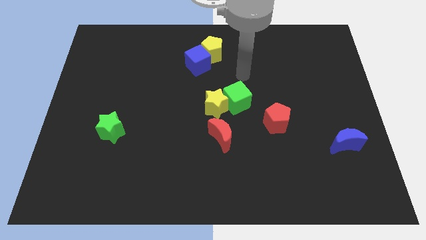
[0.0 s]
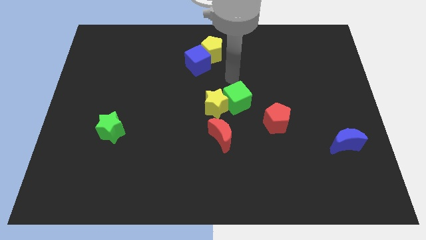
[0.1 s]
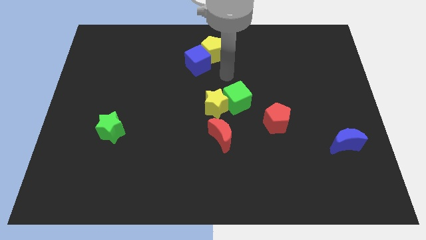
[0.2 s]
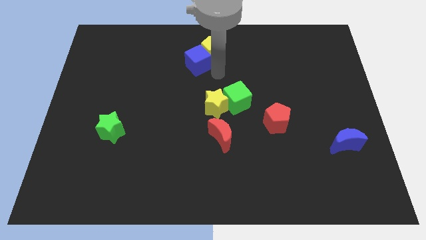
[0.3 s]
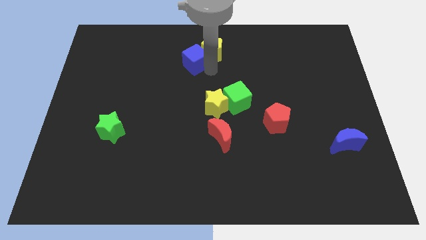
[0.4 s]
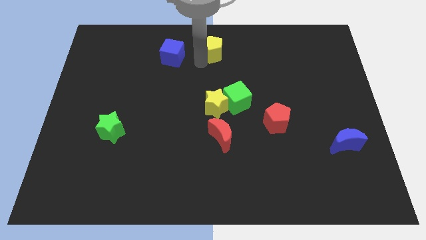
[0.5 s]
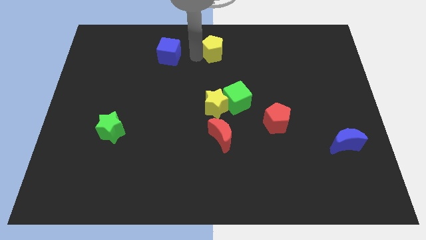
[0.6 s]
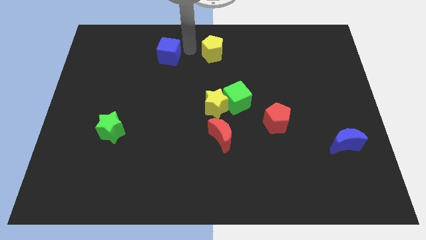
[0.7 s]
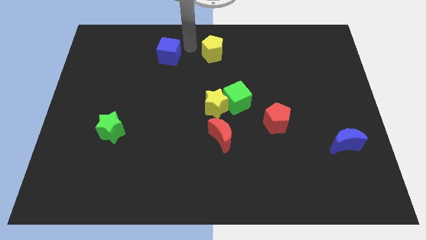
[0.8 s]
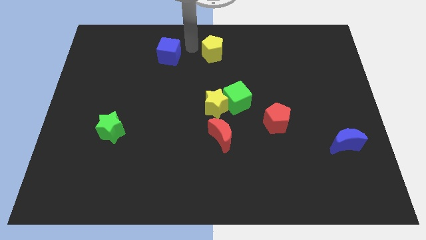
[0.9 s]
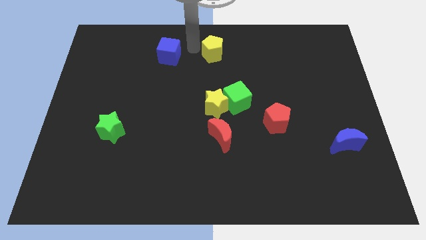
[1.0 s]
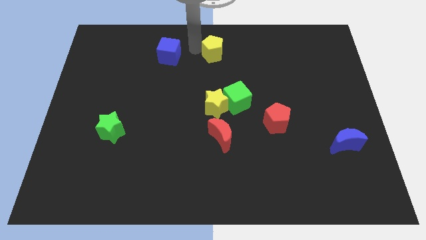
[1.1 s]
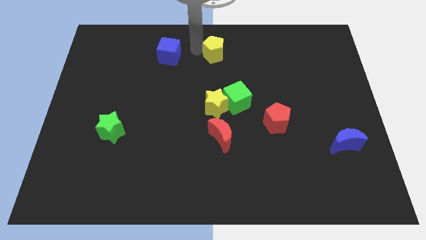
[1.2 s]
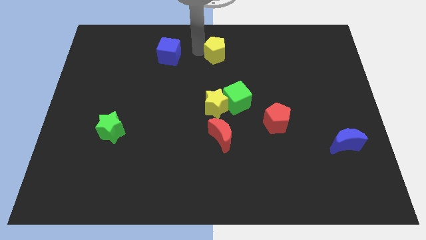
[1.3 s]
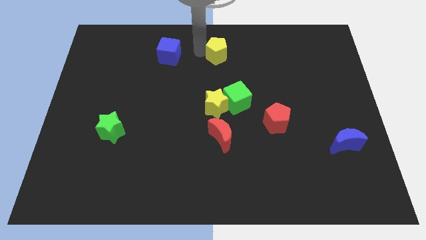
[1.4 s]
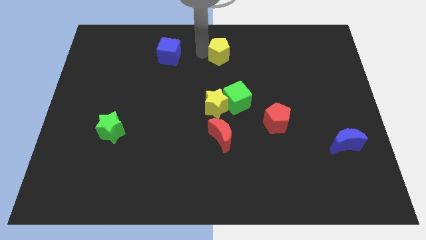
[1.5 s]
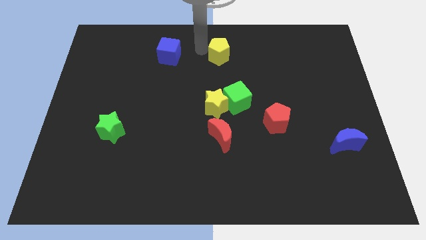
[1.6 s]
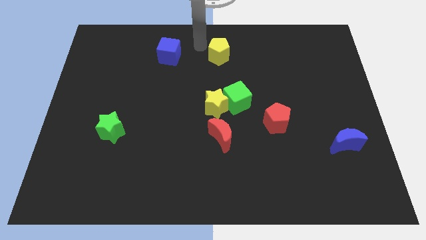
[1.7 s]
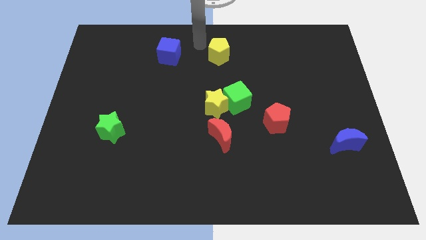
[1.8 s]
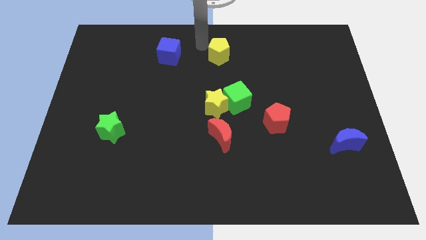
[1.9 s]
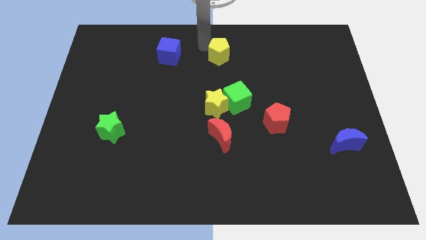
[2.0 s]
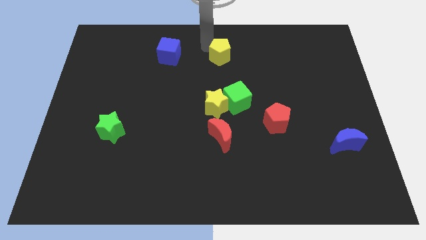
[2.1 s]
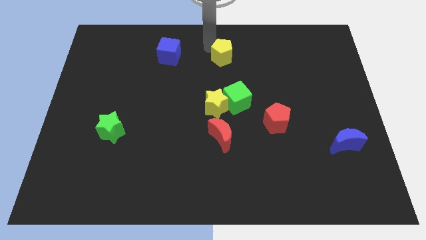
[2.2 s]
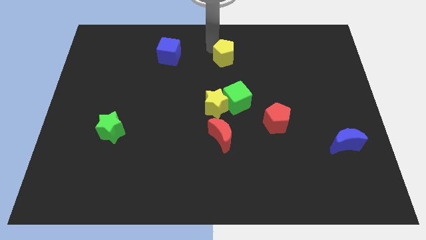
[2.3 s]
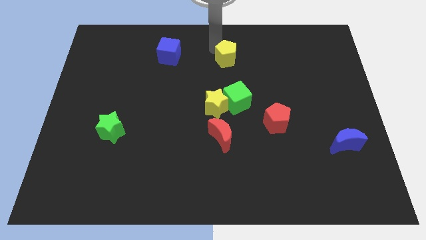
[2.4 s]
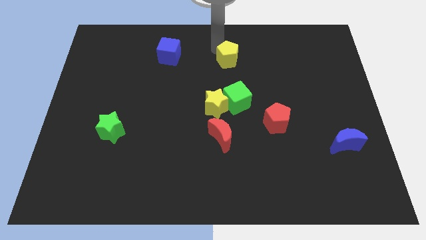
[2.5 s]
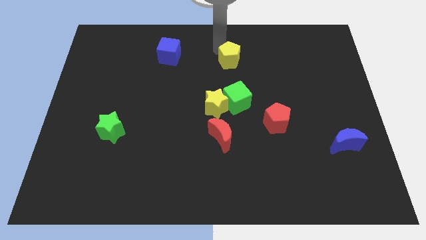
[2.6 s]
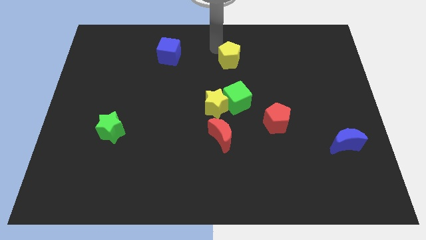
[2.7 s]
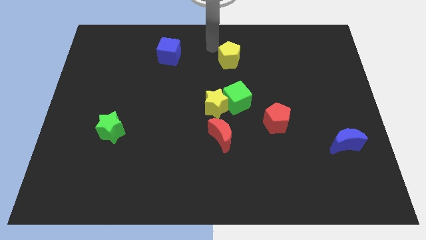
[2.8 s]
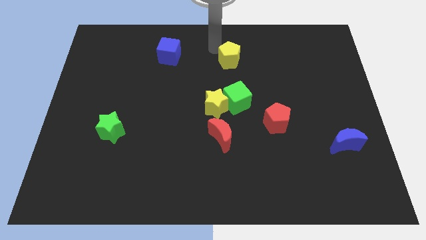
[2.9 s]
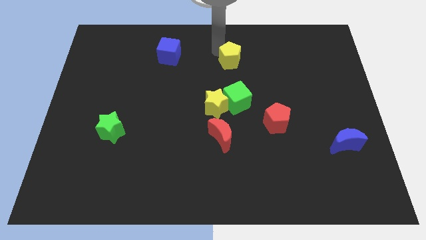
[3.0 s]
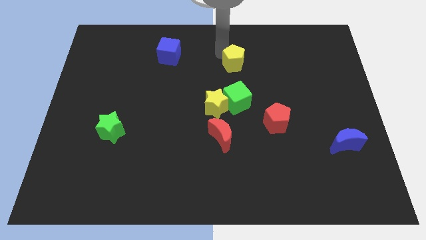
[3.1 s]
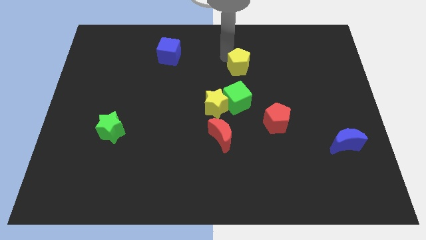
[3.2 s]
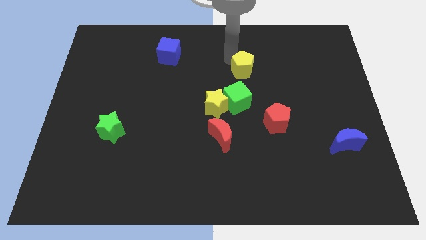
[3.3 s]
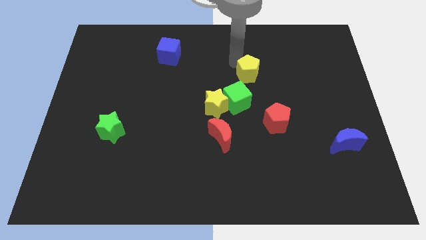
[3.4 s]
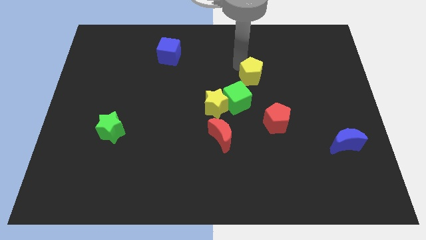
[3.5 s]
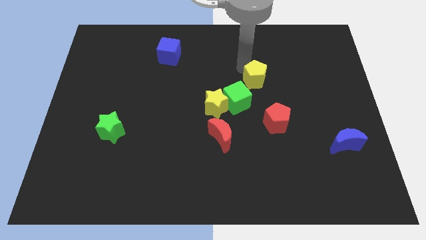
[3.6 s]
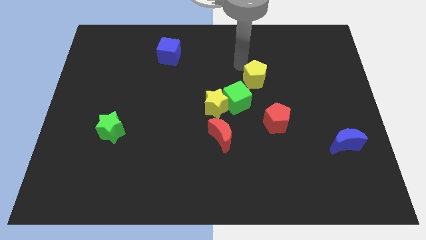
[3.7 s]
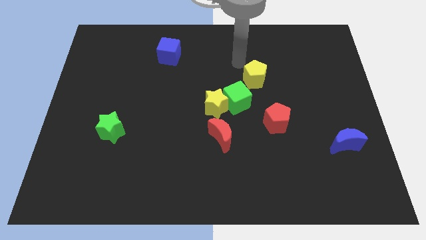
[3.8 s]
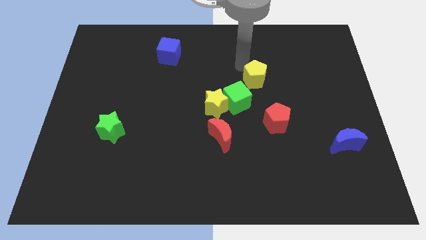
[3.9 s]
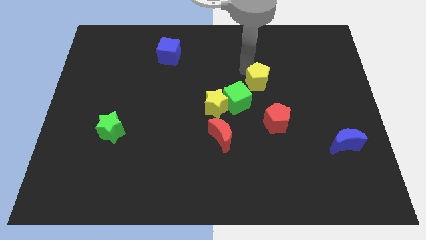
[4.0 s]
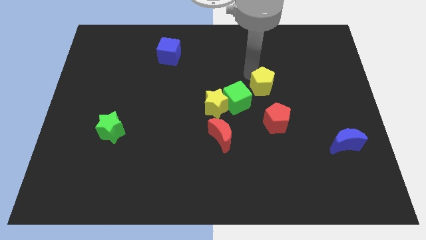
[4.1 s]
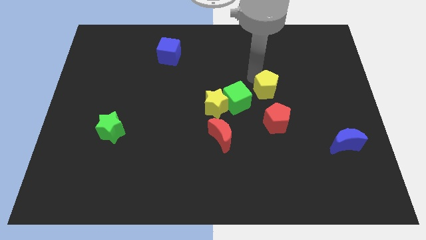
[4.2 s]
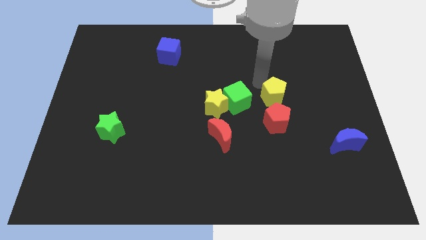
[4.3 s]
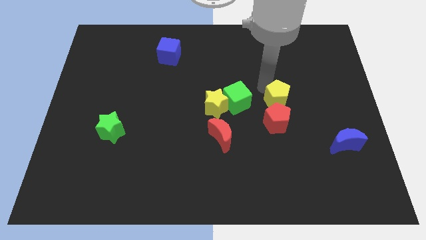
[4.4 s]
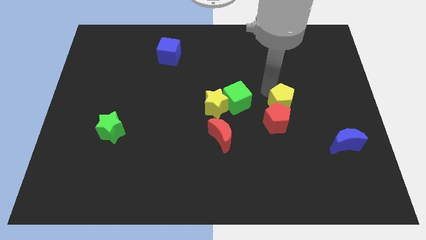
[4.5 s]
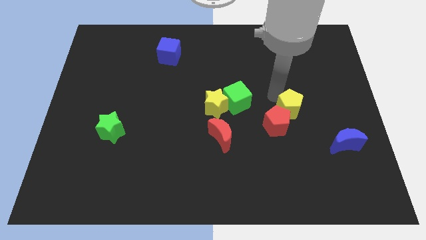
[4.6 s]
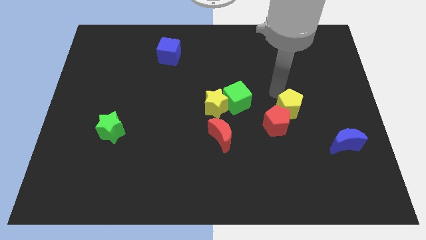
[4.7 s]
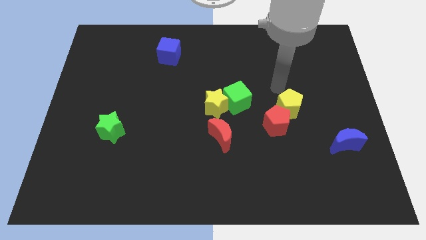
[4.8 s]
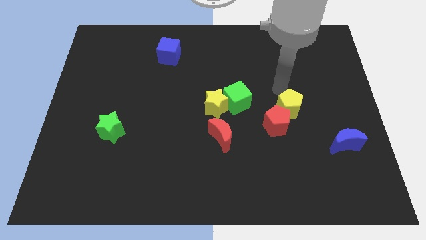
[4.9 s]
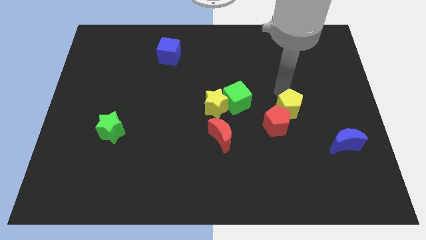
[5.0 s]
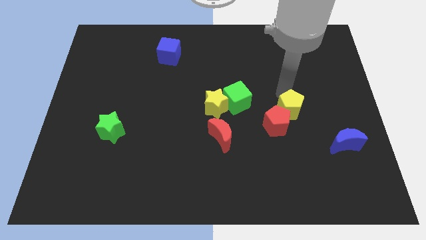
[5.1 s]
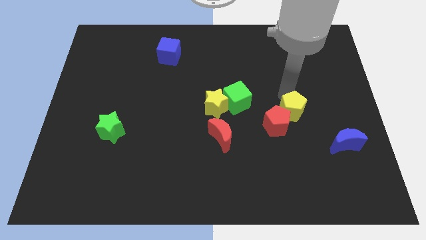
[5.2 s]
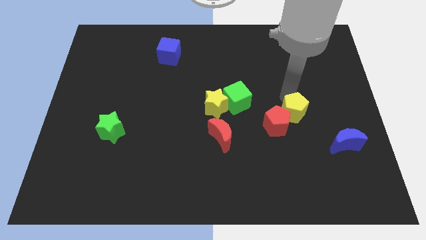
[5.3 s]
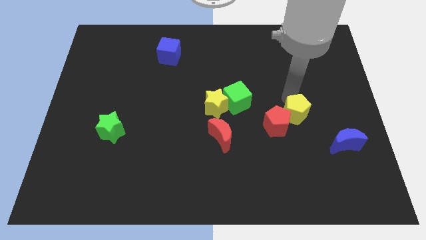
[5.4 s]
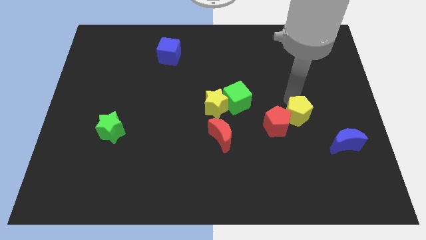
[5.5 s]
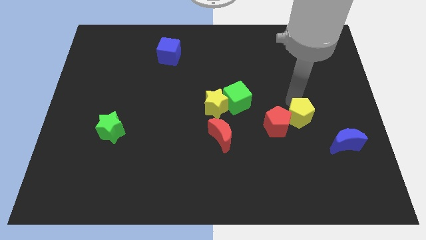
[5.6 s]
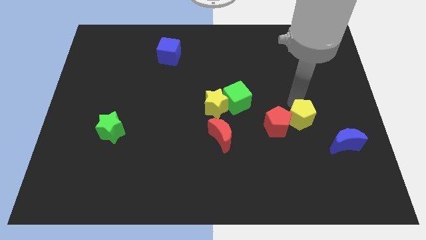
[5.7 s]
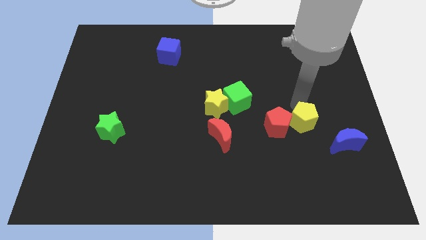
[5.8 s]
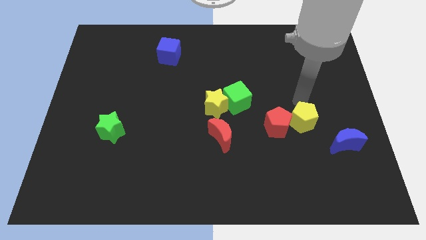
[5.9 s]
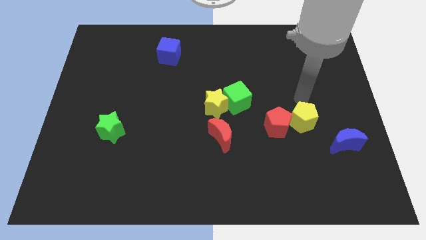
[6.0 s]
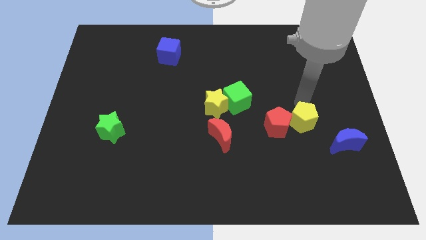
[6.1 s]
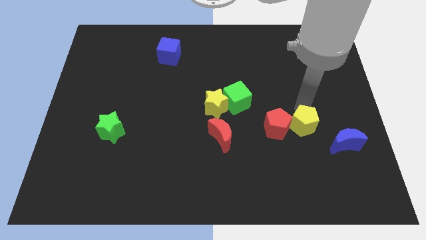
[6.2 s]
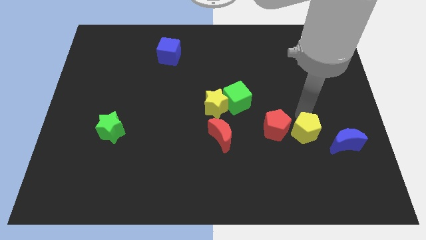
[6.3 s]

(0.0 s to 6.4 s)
move the yellow pentagon to the bottom right of the red pentagon

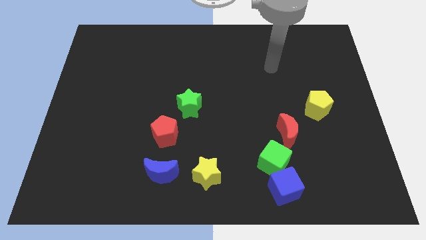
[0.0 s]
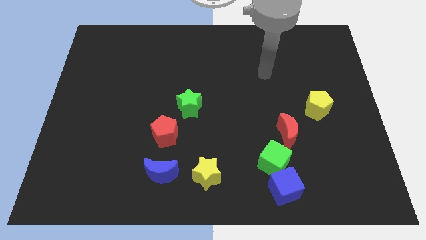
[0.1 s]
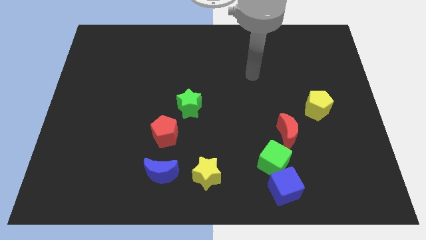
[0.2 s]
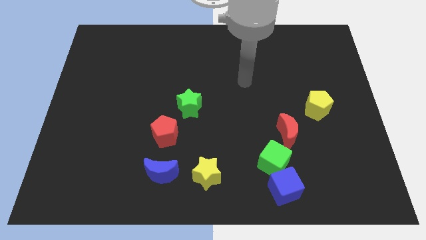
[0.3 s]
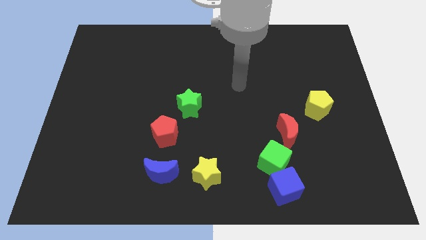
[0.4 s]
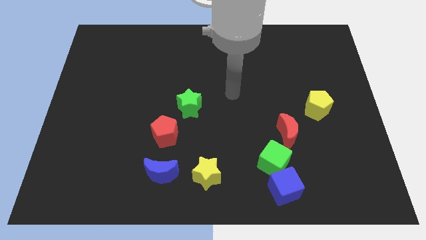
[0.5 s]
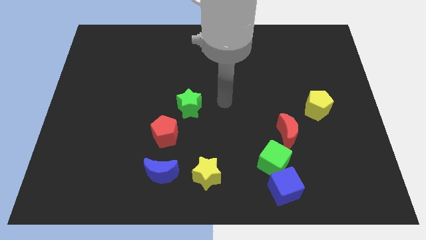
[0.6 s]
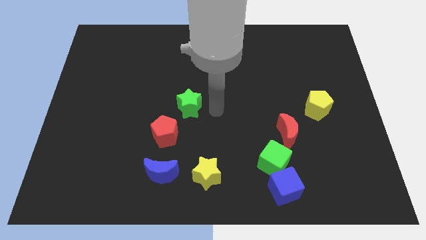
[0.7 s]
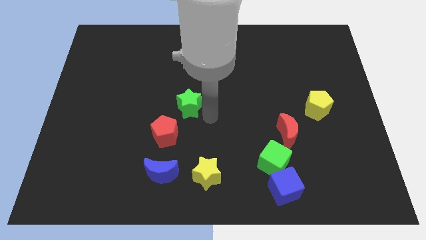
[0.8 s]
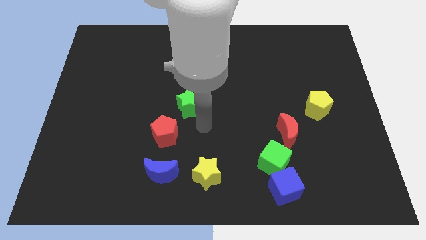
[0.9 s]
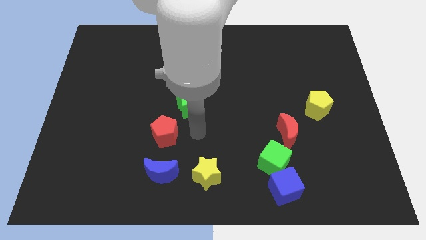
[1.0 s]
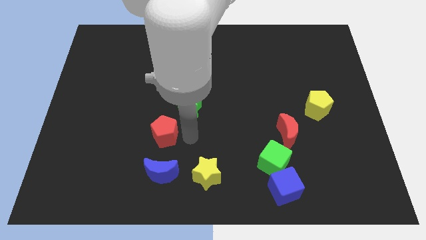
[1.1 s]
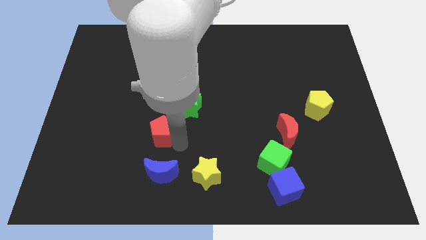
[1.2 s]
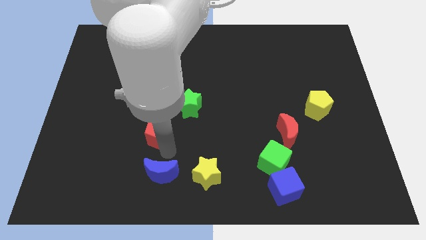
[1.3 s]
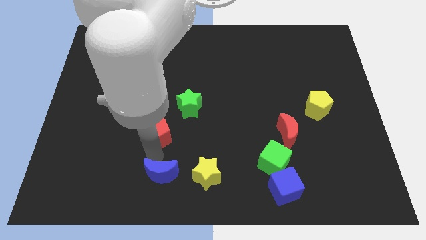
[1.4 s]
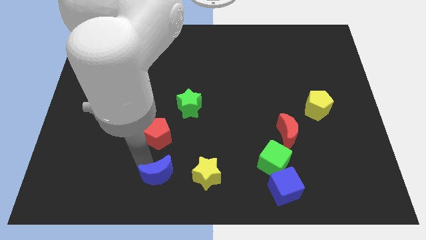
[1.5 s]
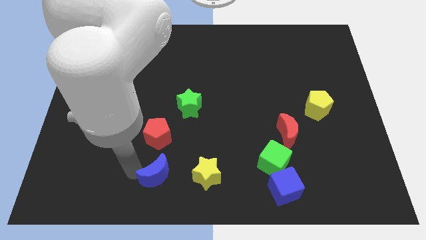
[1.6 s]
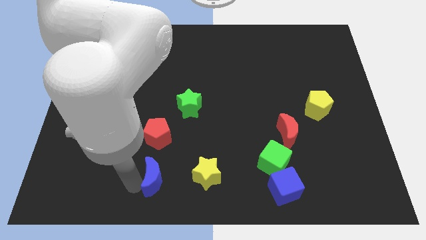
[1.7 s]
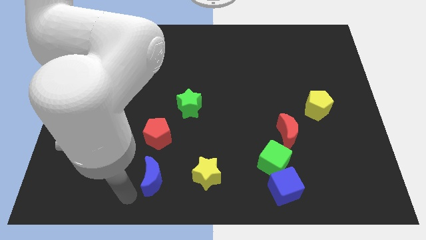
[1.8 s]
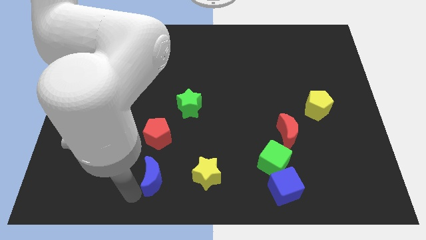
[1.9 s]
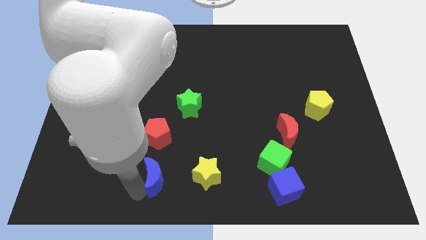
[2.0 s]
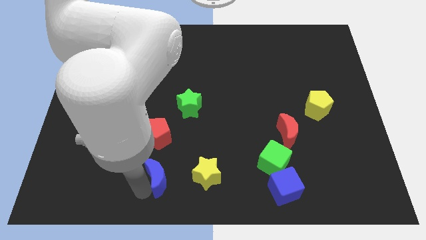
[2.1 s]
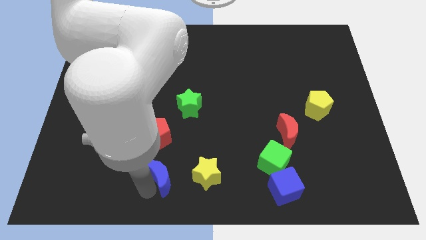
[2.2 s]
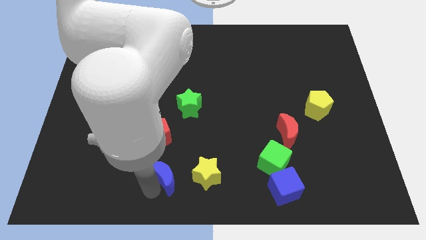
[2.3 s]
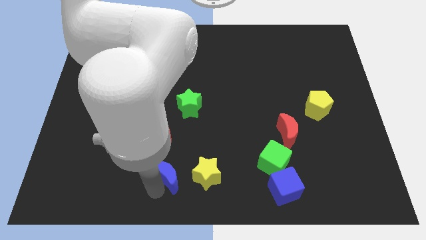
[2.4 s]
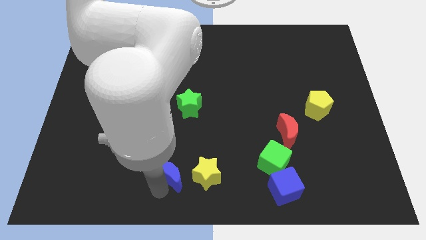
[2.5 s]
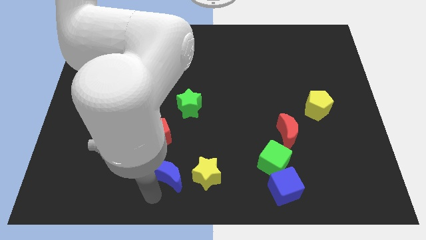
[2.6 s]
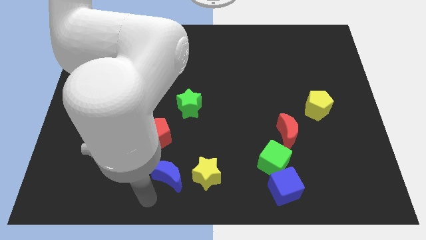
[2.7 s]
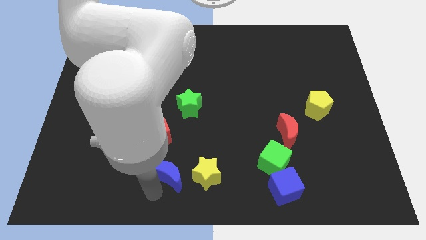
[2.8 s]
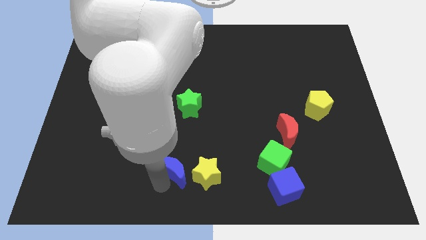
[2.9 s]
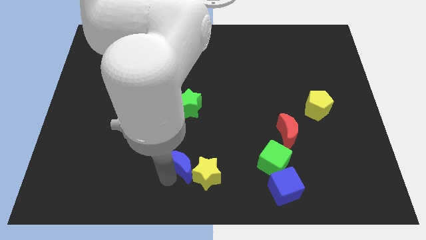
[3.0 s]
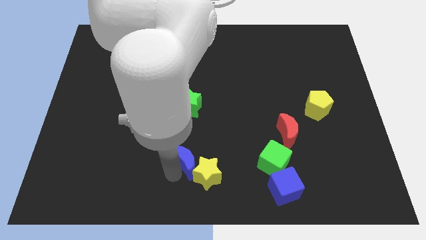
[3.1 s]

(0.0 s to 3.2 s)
push the blue moon to the top side of the yellow star
